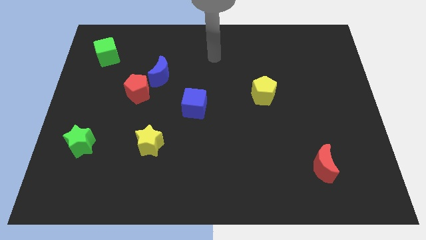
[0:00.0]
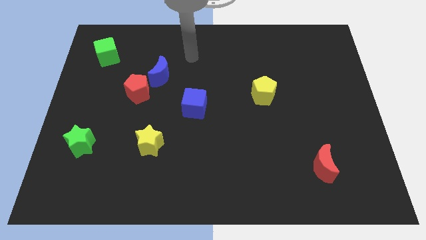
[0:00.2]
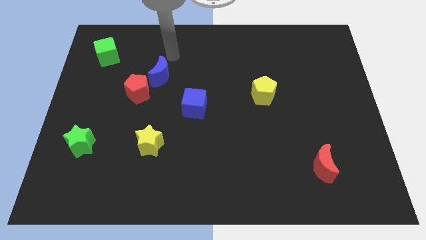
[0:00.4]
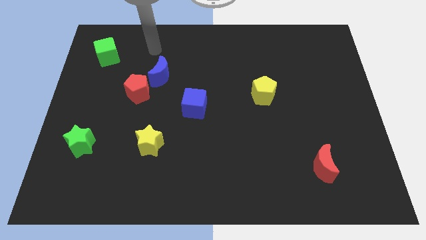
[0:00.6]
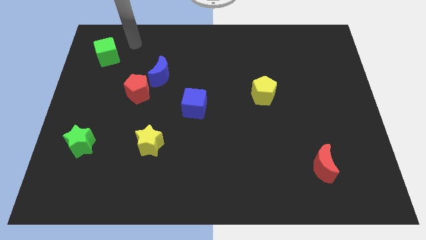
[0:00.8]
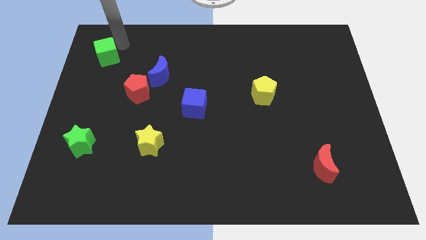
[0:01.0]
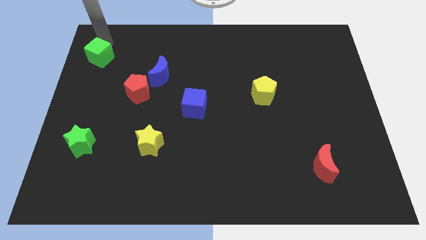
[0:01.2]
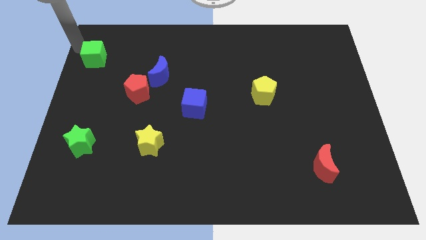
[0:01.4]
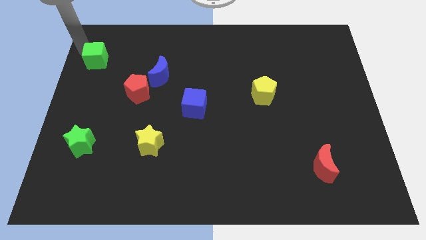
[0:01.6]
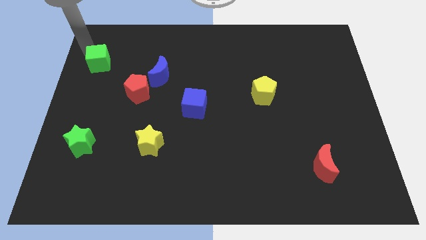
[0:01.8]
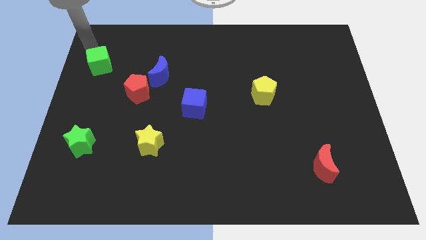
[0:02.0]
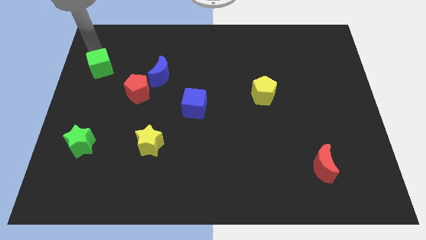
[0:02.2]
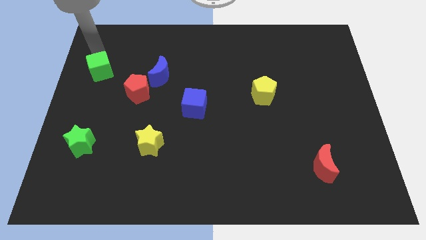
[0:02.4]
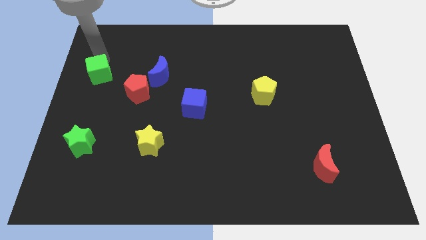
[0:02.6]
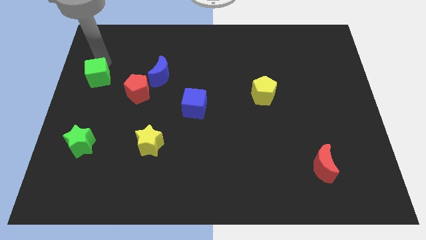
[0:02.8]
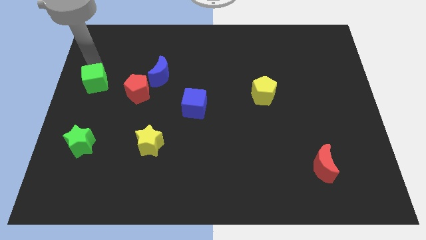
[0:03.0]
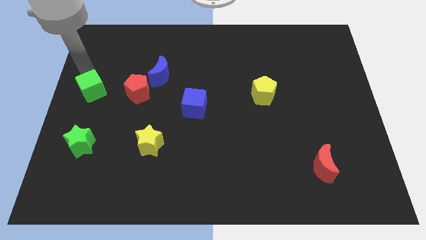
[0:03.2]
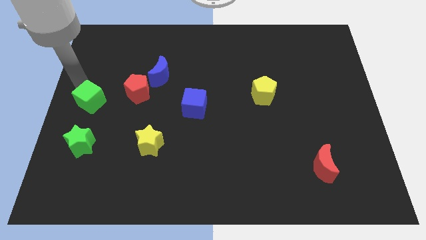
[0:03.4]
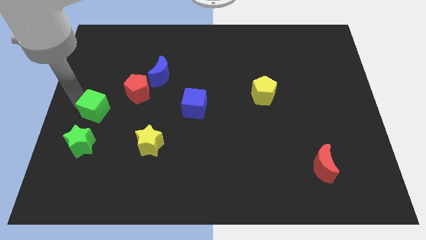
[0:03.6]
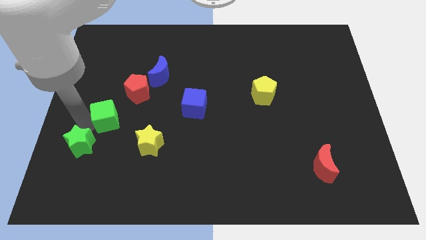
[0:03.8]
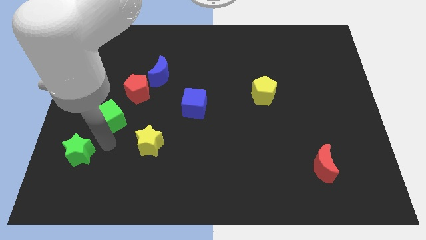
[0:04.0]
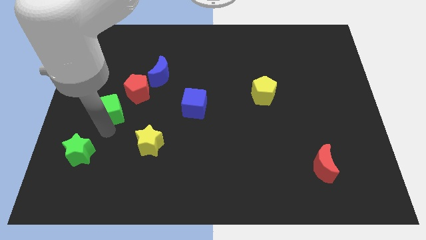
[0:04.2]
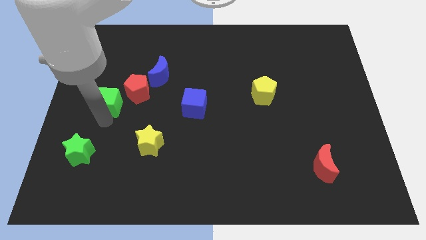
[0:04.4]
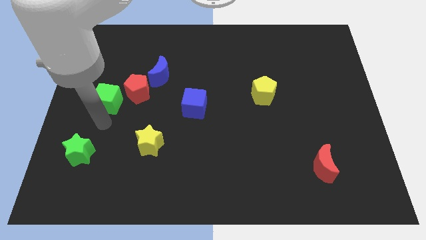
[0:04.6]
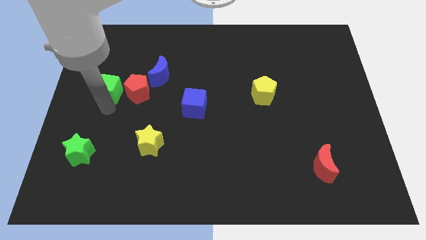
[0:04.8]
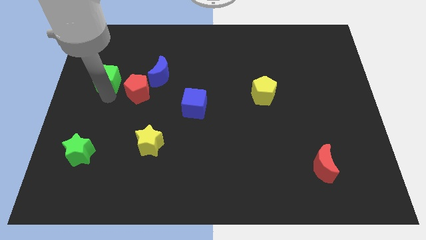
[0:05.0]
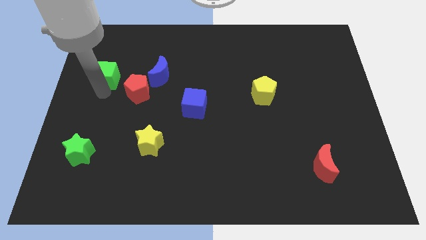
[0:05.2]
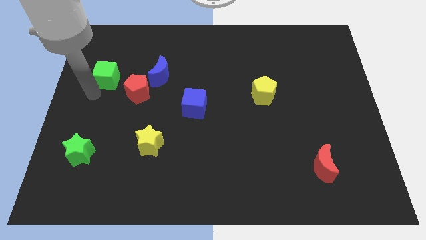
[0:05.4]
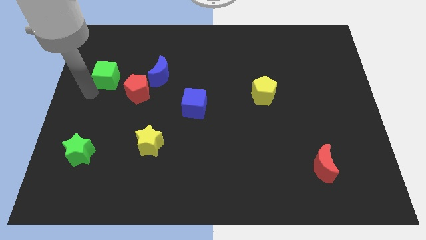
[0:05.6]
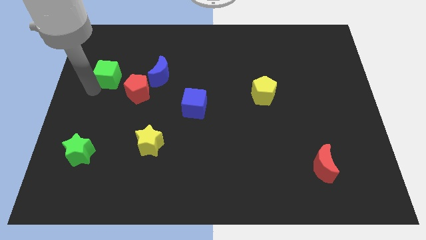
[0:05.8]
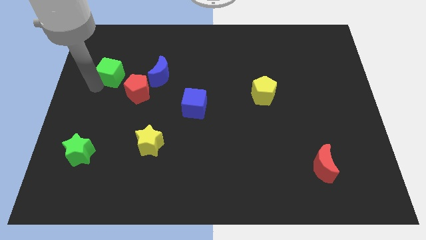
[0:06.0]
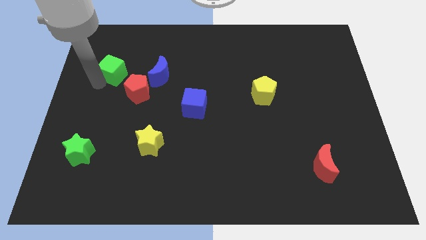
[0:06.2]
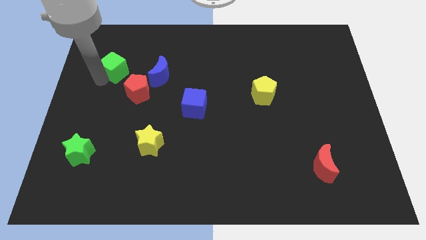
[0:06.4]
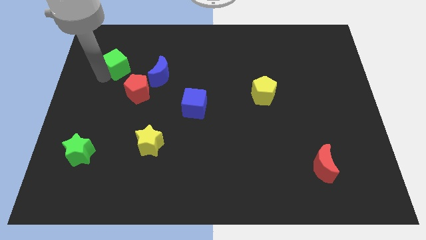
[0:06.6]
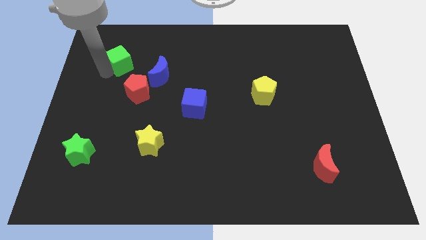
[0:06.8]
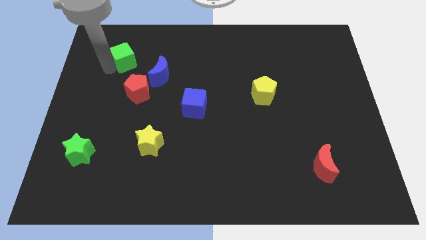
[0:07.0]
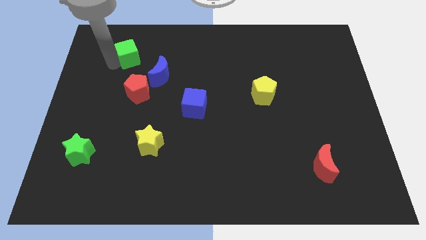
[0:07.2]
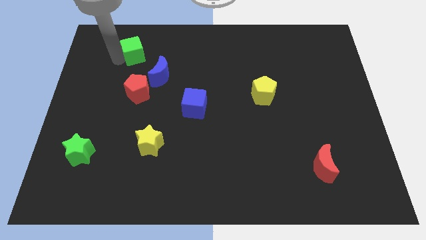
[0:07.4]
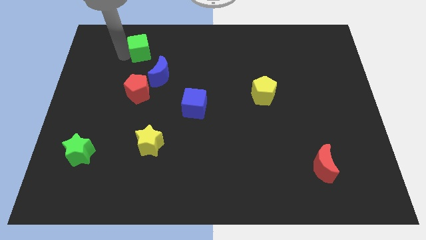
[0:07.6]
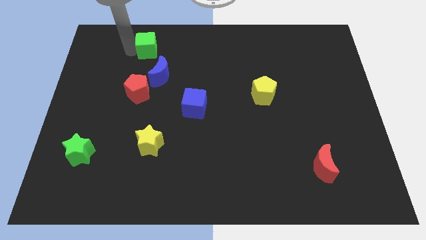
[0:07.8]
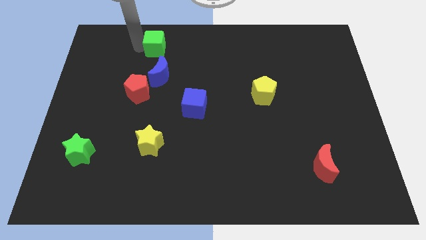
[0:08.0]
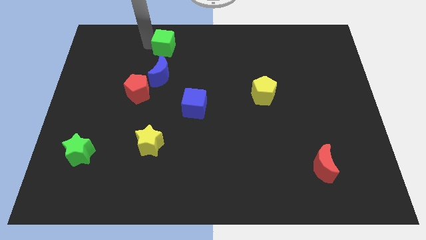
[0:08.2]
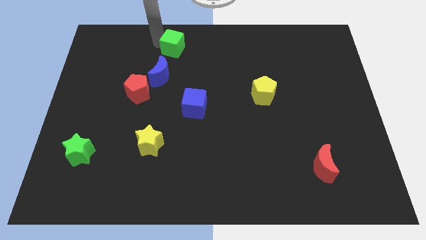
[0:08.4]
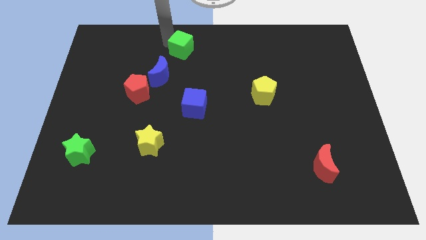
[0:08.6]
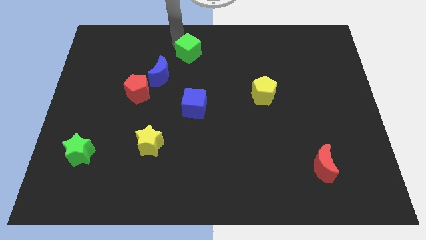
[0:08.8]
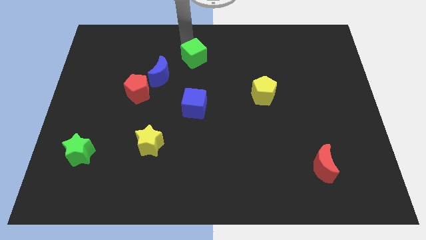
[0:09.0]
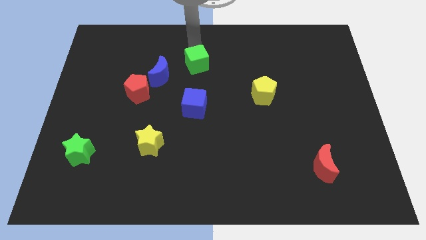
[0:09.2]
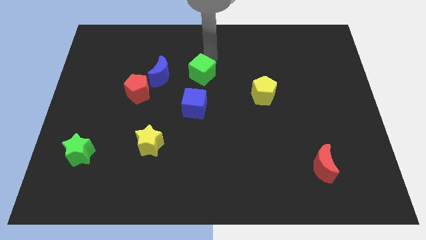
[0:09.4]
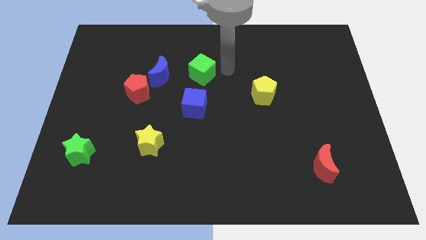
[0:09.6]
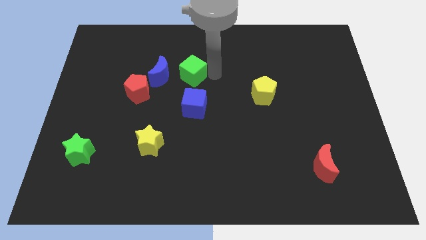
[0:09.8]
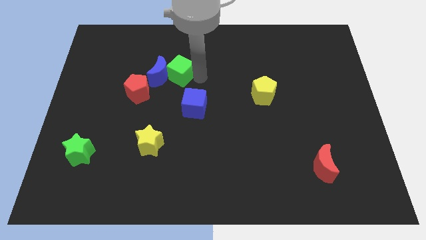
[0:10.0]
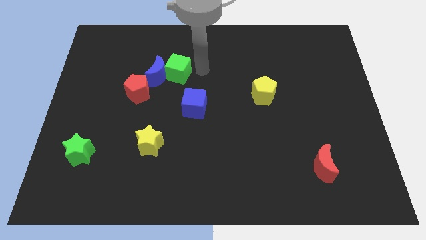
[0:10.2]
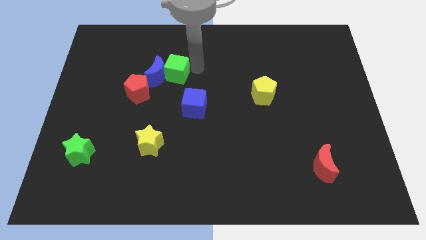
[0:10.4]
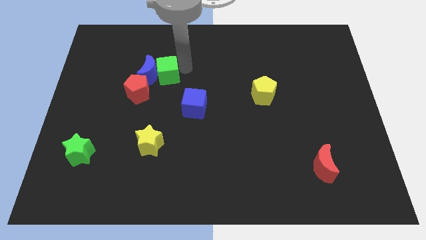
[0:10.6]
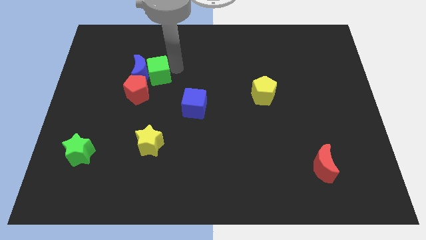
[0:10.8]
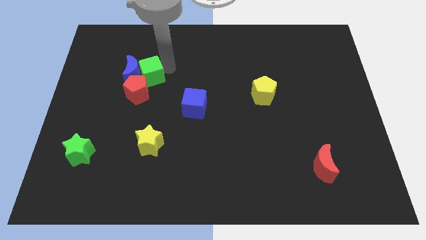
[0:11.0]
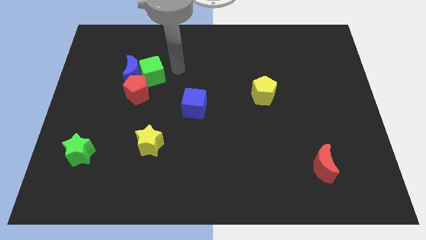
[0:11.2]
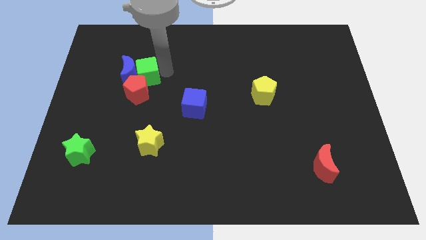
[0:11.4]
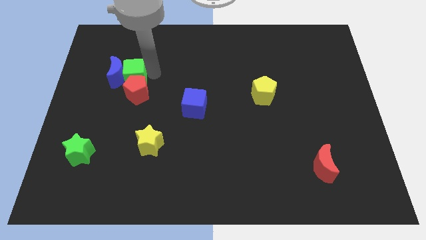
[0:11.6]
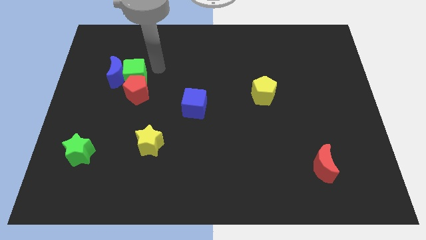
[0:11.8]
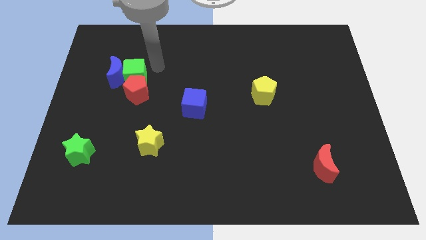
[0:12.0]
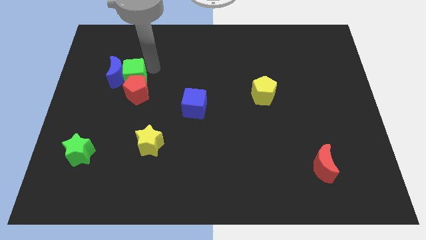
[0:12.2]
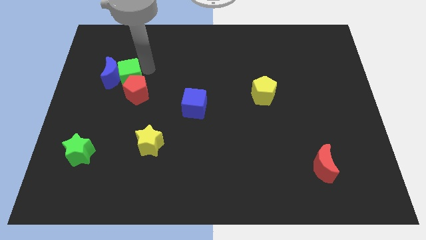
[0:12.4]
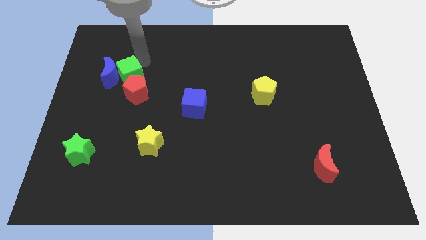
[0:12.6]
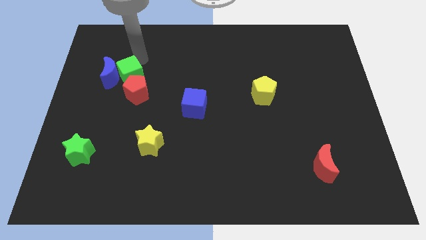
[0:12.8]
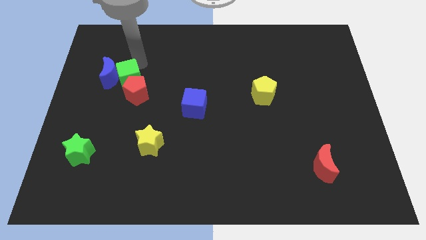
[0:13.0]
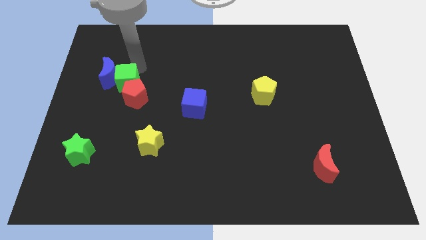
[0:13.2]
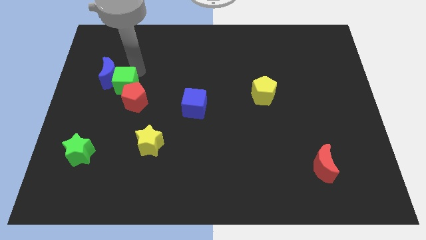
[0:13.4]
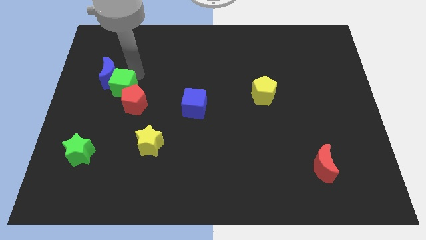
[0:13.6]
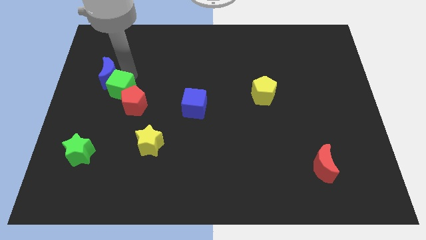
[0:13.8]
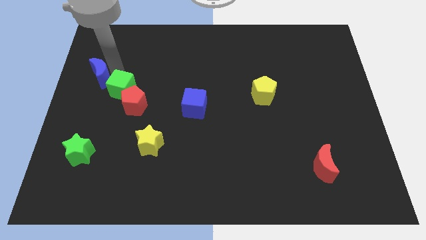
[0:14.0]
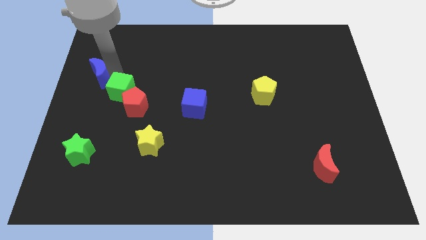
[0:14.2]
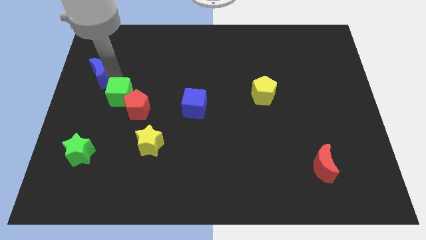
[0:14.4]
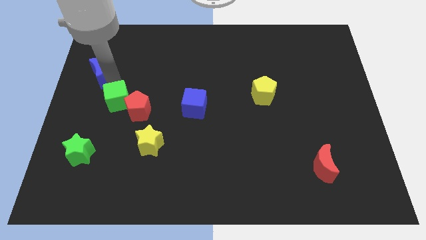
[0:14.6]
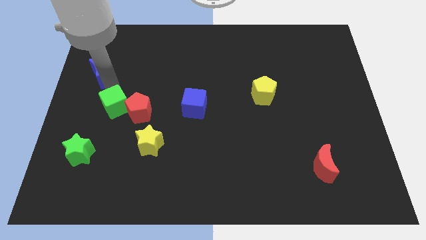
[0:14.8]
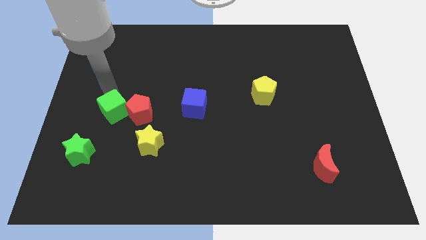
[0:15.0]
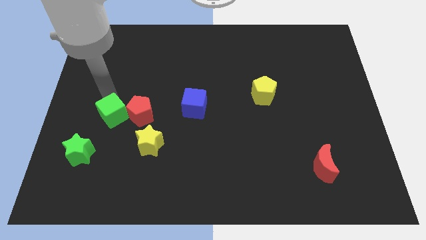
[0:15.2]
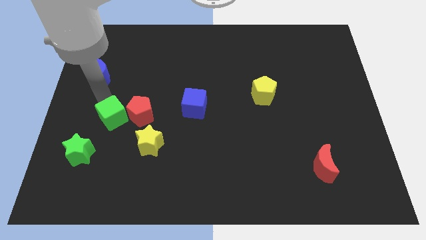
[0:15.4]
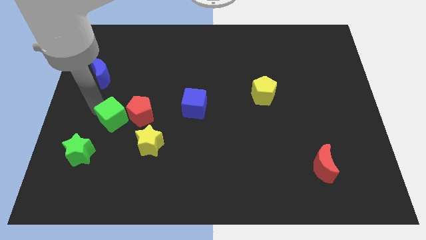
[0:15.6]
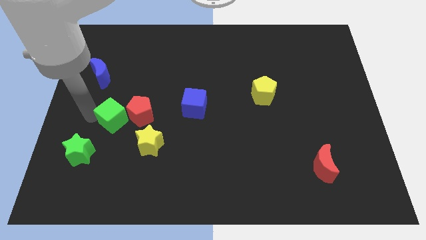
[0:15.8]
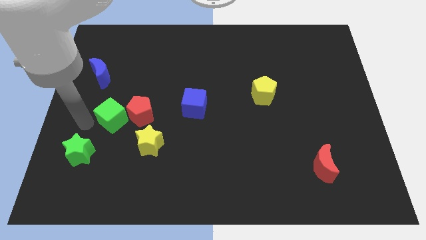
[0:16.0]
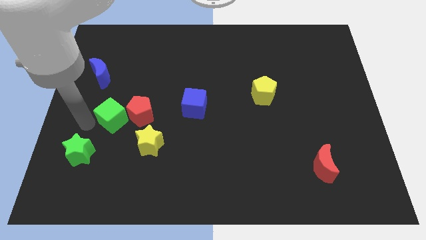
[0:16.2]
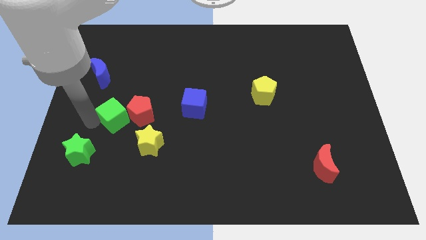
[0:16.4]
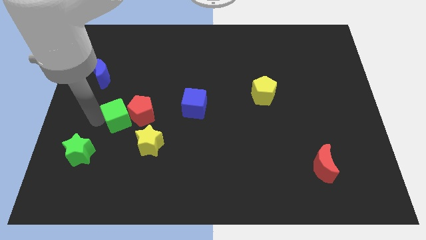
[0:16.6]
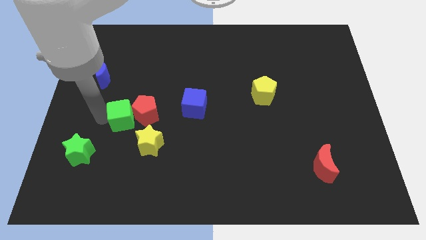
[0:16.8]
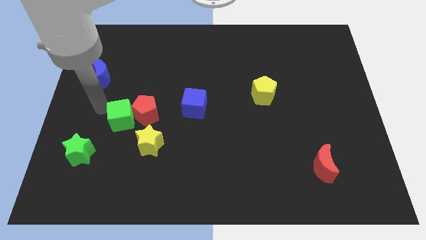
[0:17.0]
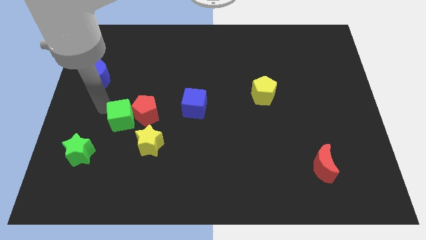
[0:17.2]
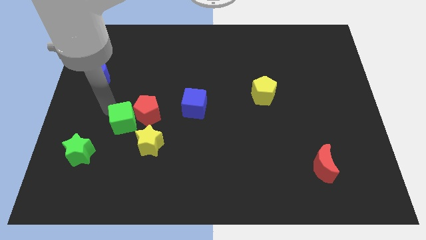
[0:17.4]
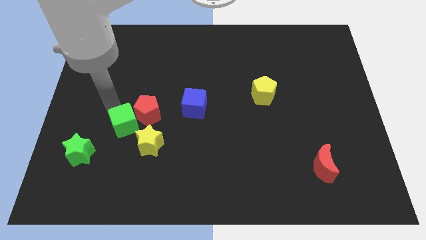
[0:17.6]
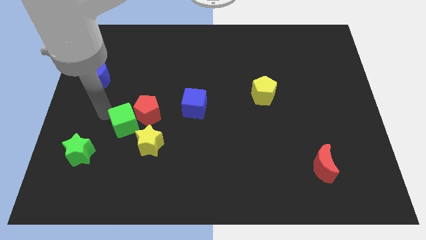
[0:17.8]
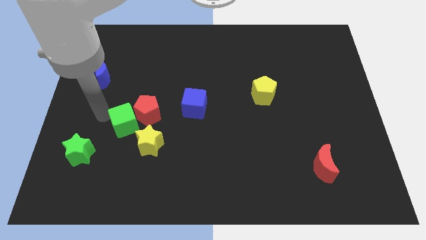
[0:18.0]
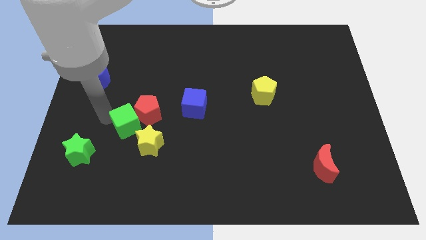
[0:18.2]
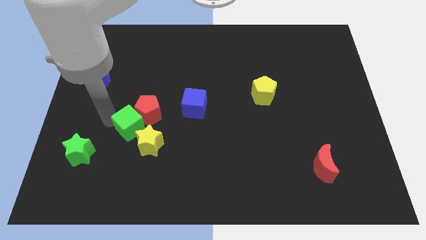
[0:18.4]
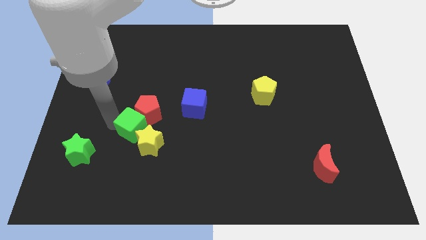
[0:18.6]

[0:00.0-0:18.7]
push the green cube next to the yellow star
